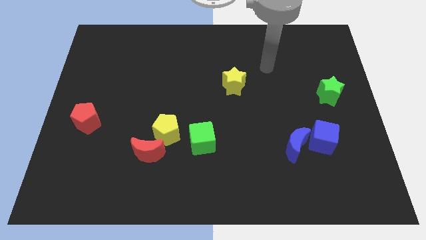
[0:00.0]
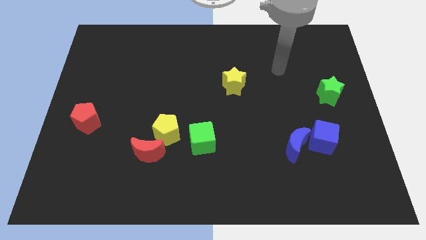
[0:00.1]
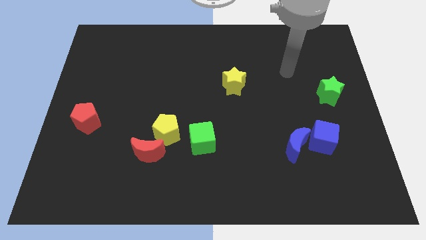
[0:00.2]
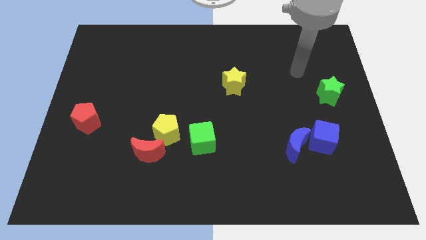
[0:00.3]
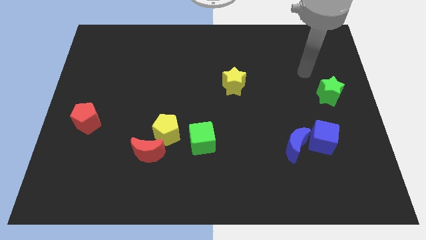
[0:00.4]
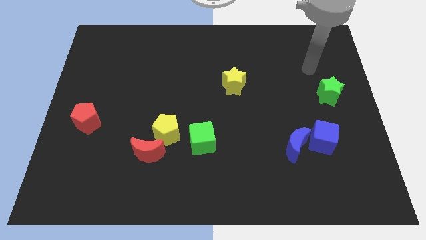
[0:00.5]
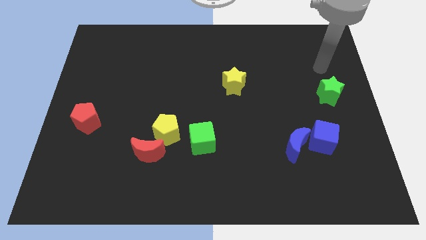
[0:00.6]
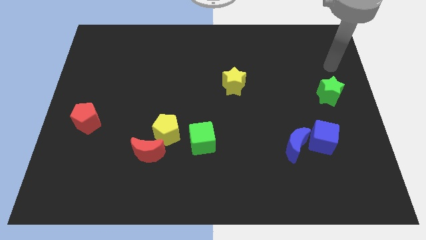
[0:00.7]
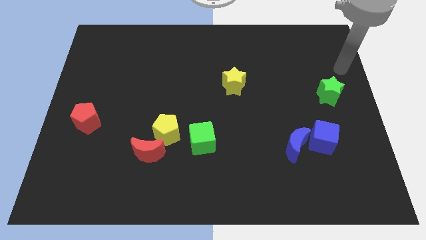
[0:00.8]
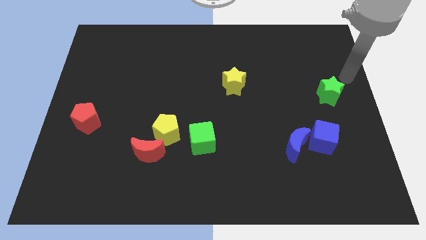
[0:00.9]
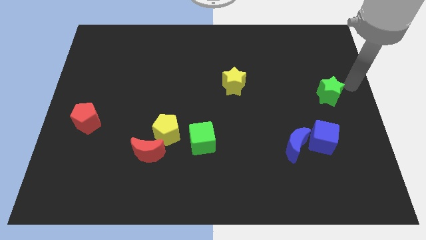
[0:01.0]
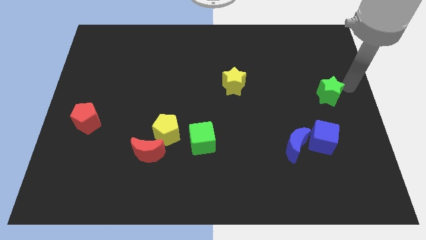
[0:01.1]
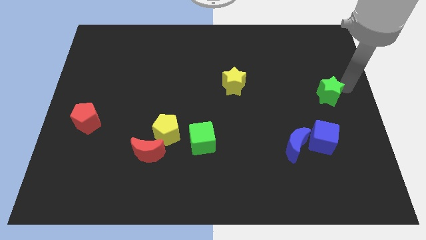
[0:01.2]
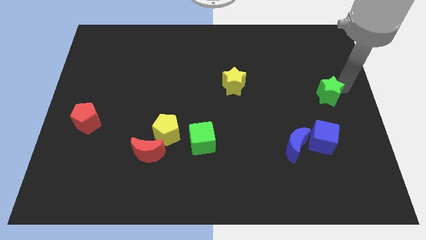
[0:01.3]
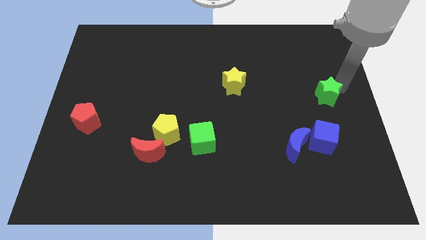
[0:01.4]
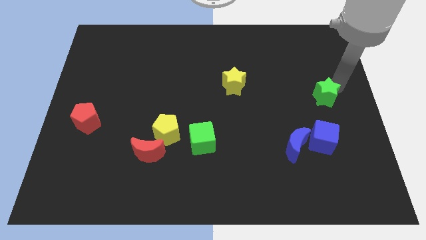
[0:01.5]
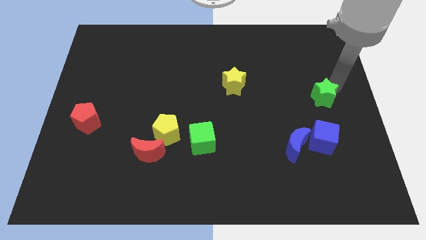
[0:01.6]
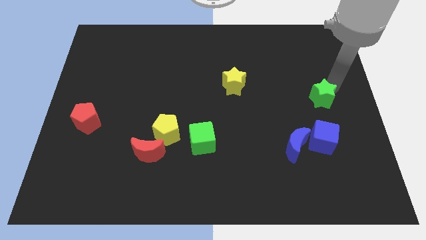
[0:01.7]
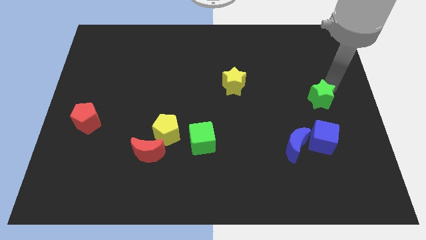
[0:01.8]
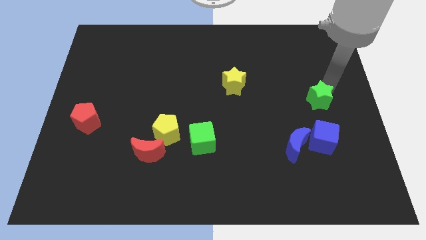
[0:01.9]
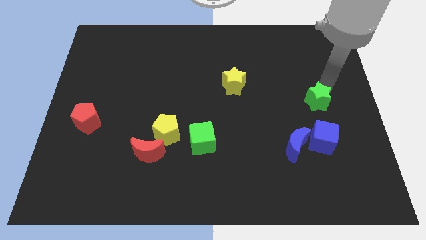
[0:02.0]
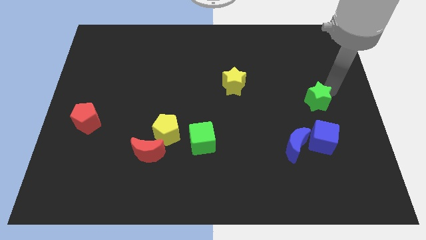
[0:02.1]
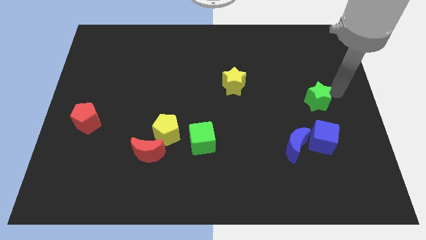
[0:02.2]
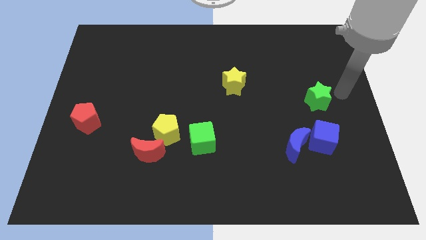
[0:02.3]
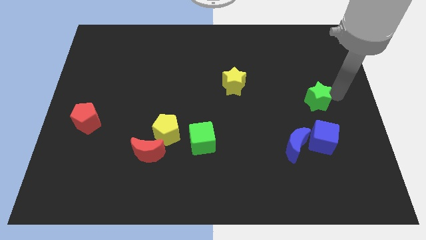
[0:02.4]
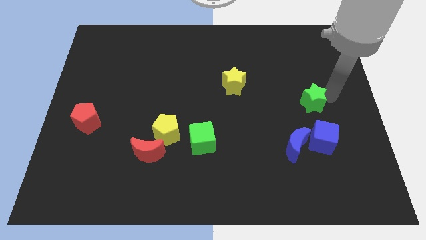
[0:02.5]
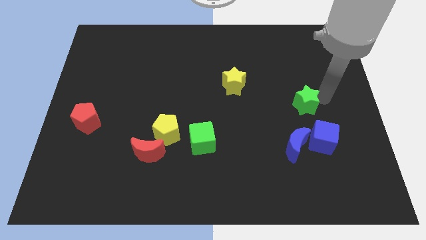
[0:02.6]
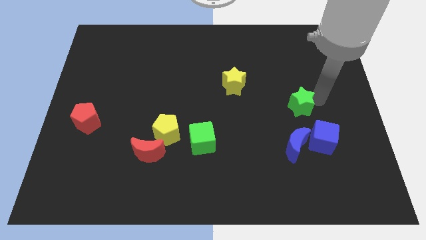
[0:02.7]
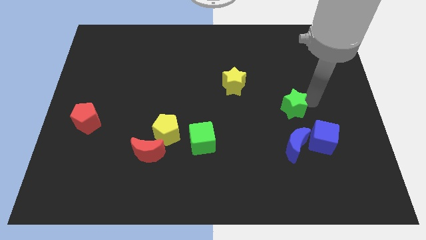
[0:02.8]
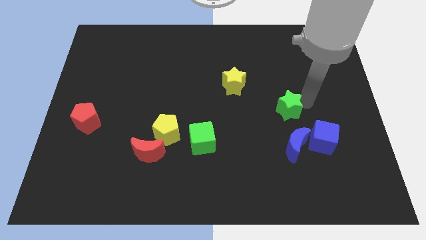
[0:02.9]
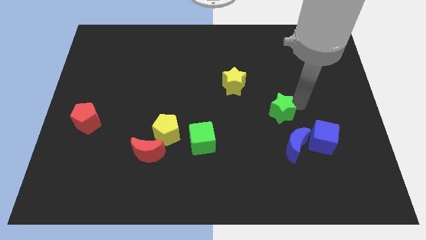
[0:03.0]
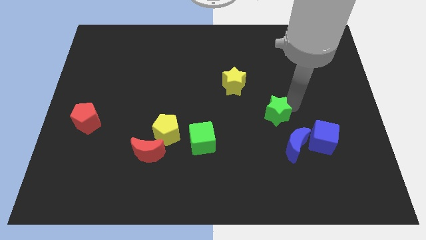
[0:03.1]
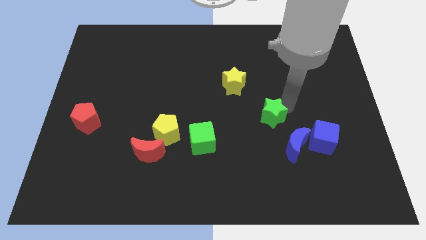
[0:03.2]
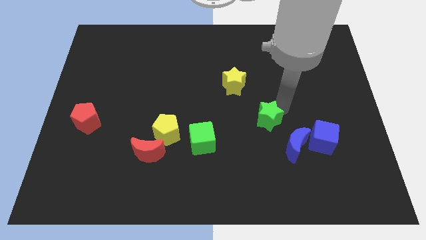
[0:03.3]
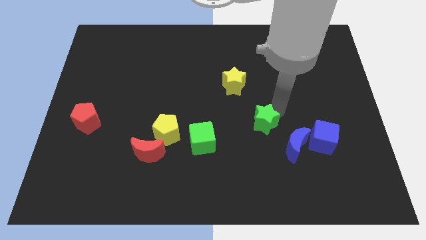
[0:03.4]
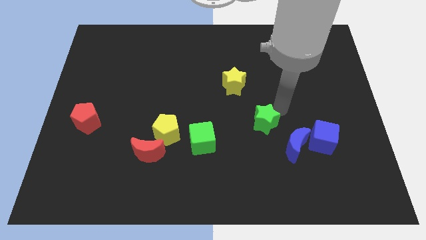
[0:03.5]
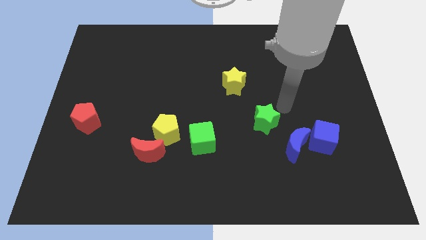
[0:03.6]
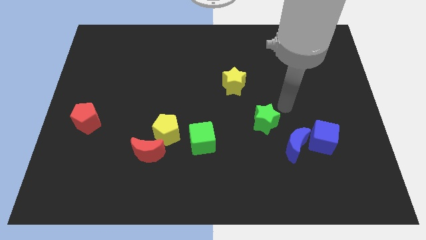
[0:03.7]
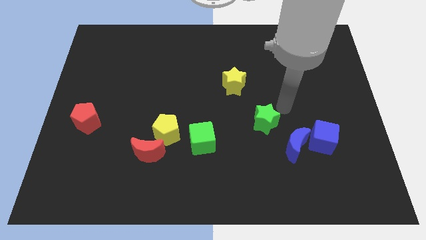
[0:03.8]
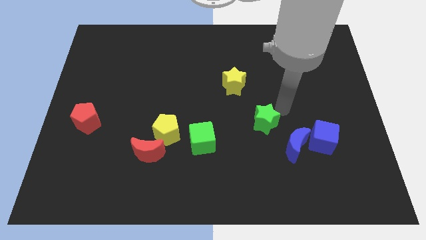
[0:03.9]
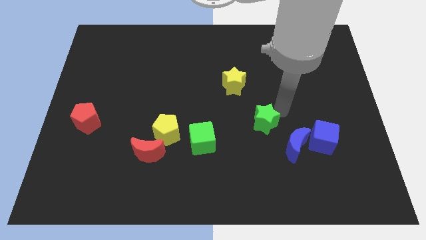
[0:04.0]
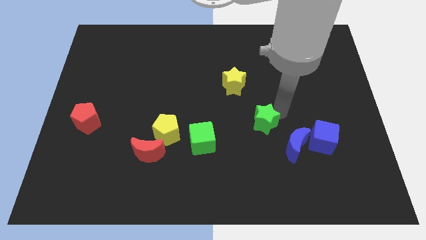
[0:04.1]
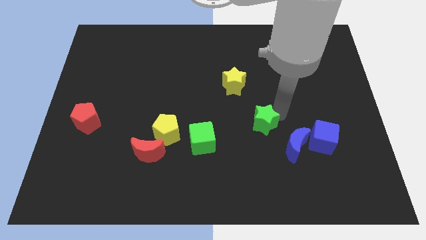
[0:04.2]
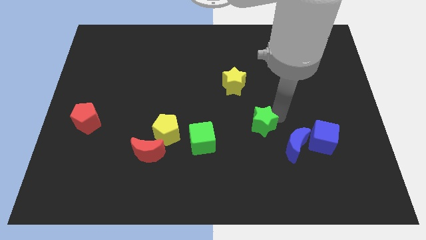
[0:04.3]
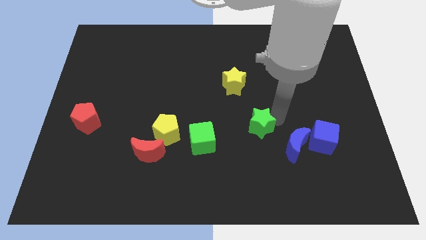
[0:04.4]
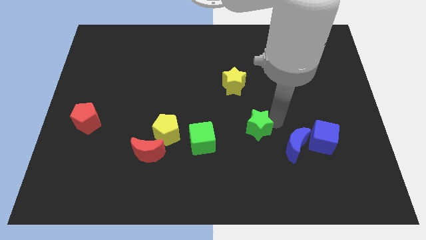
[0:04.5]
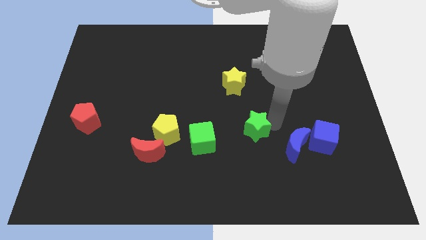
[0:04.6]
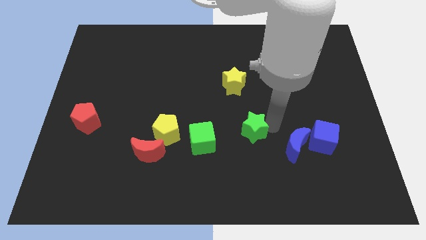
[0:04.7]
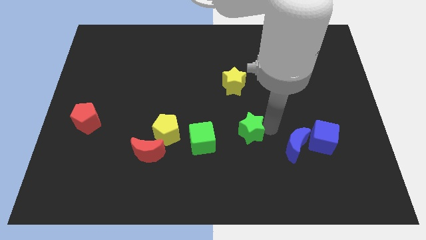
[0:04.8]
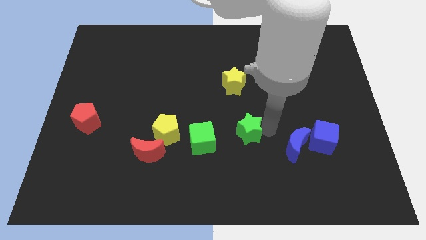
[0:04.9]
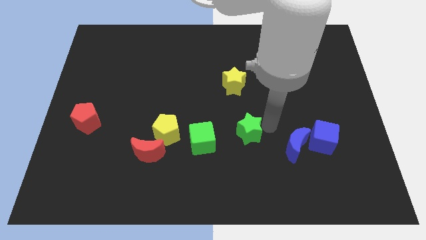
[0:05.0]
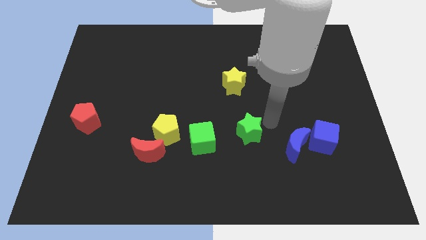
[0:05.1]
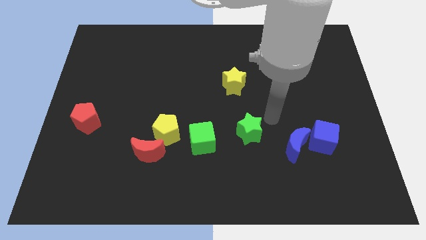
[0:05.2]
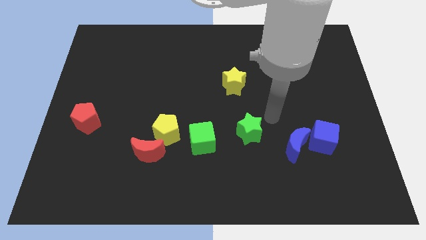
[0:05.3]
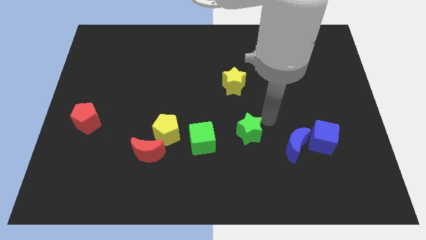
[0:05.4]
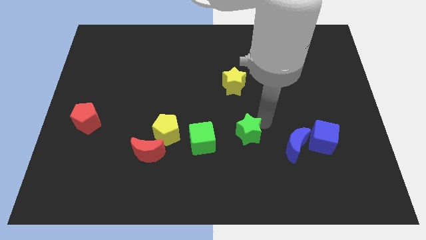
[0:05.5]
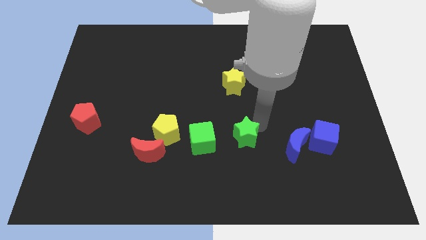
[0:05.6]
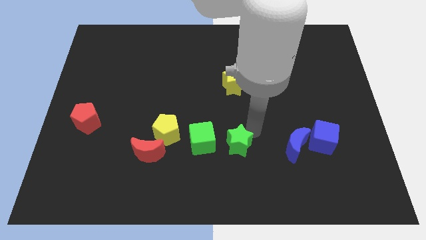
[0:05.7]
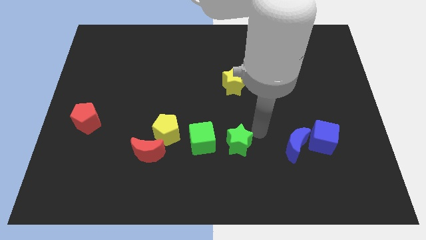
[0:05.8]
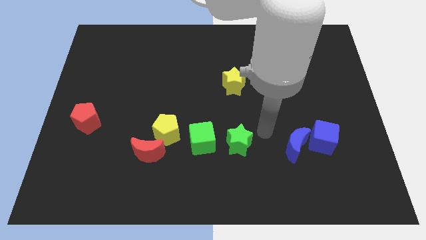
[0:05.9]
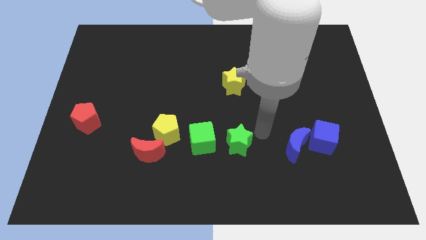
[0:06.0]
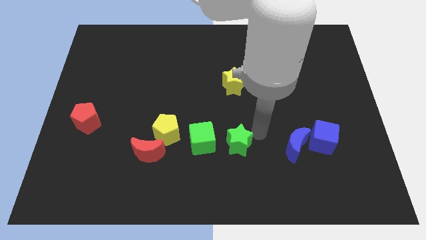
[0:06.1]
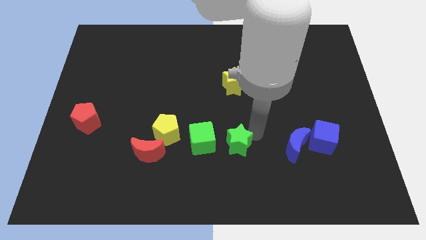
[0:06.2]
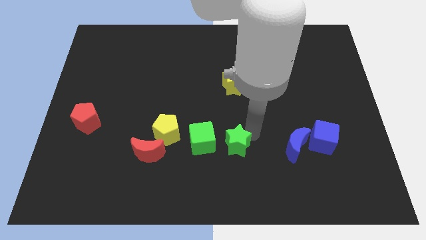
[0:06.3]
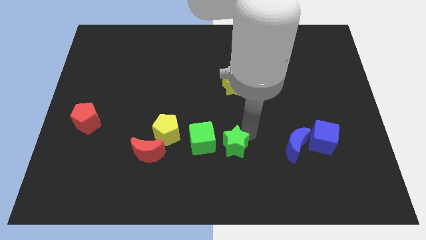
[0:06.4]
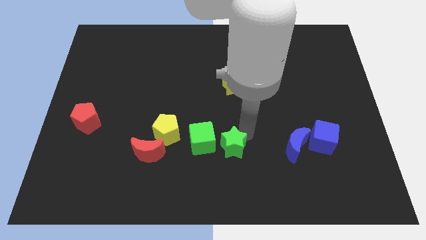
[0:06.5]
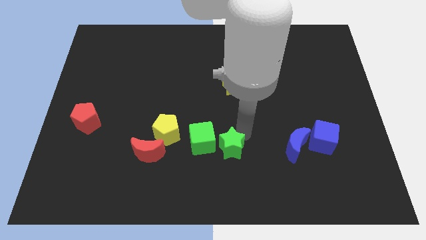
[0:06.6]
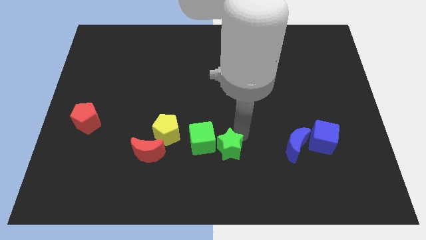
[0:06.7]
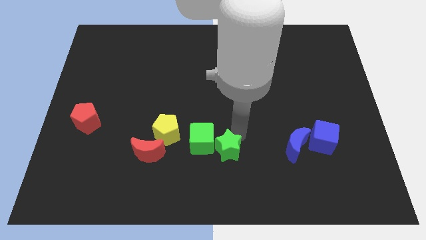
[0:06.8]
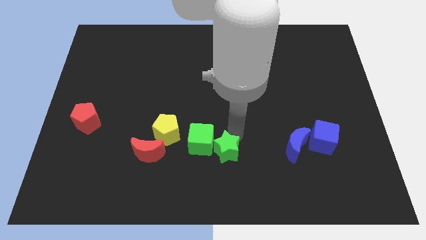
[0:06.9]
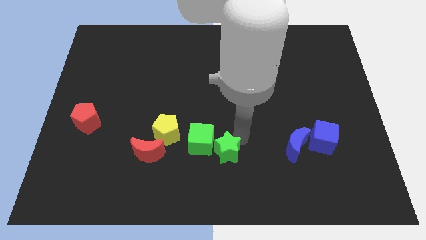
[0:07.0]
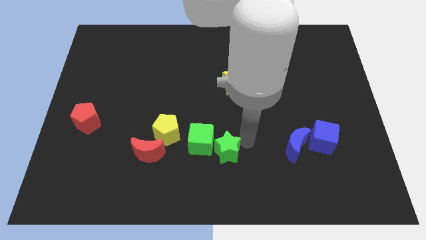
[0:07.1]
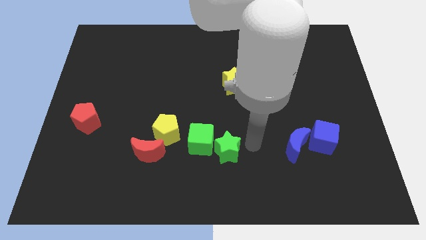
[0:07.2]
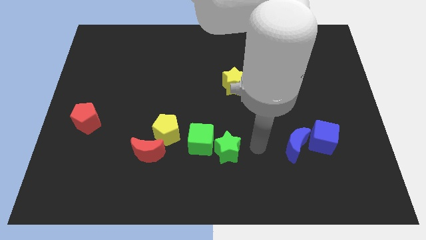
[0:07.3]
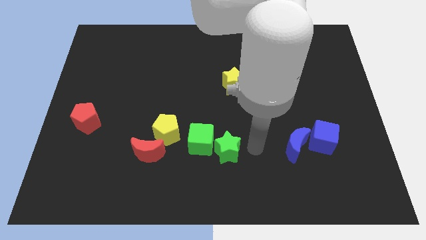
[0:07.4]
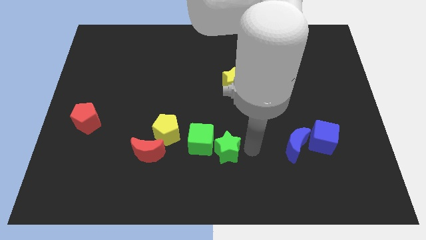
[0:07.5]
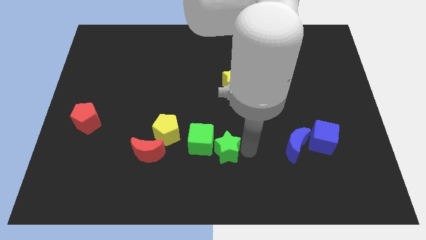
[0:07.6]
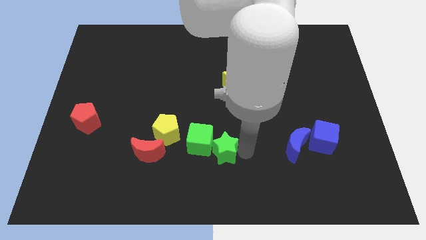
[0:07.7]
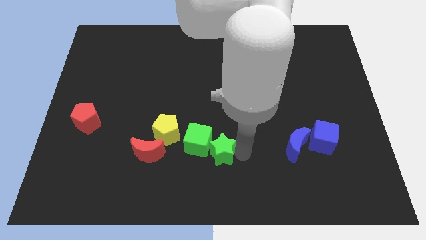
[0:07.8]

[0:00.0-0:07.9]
slide the green star to the right side of the red moon
